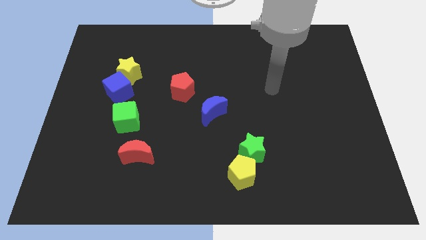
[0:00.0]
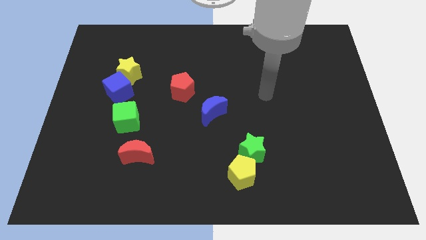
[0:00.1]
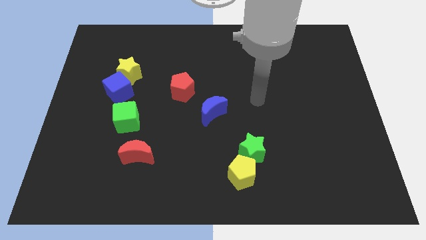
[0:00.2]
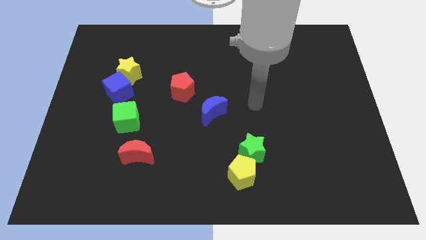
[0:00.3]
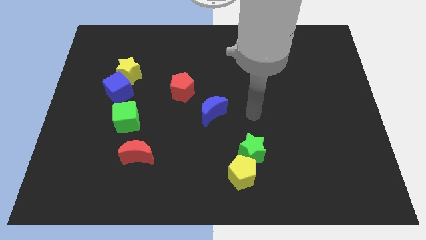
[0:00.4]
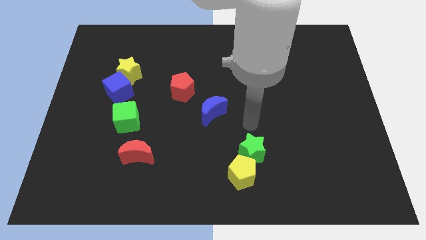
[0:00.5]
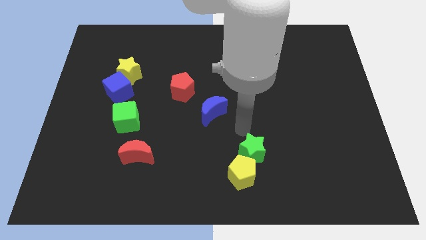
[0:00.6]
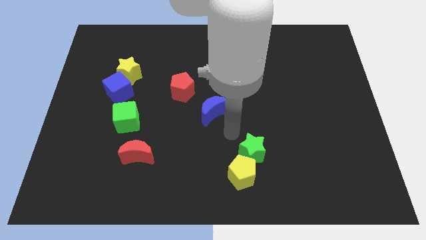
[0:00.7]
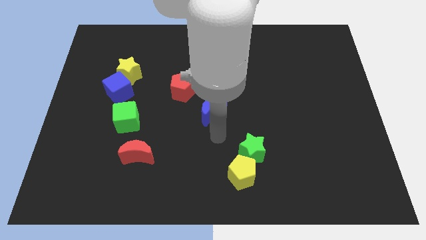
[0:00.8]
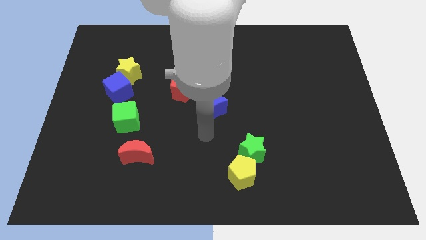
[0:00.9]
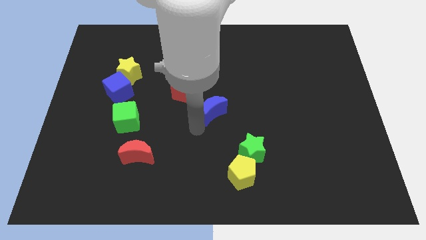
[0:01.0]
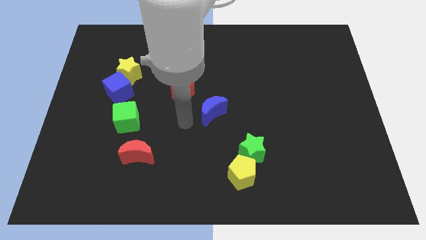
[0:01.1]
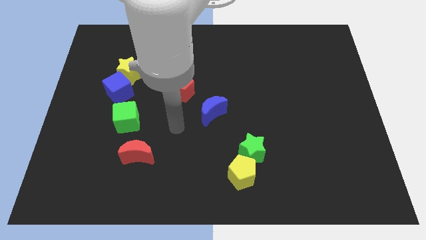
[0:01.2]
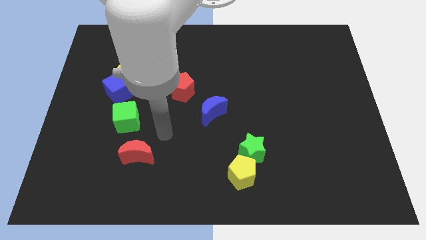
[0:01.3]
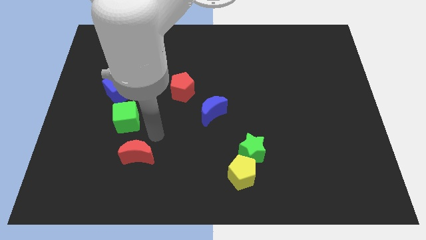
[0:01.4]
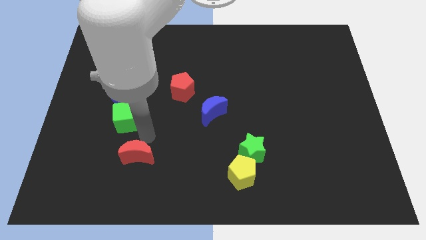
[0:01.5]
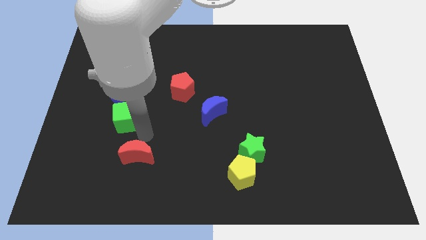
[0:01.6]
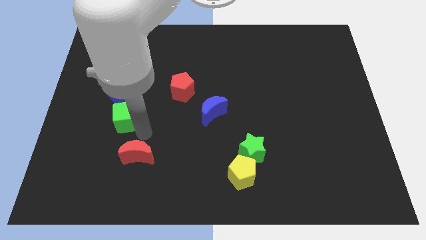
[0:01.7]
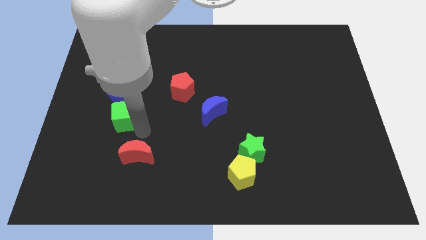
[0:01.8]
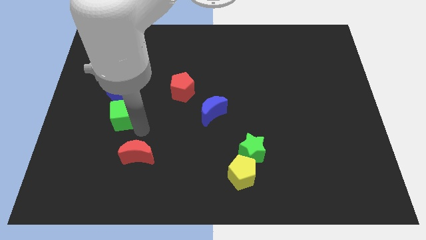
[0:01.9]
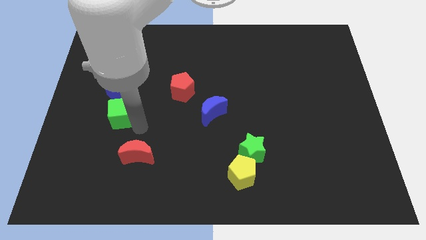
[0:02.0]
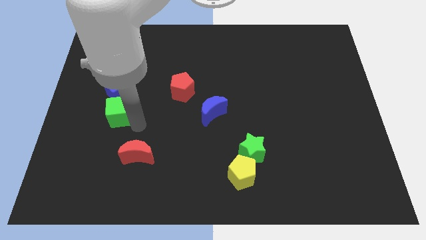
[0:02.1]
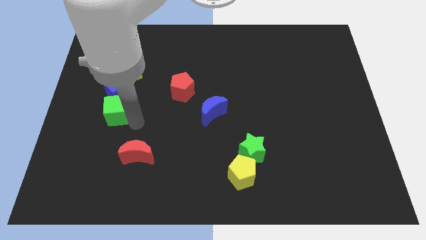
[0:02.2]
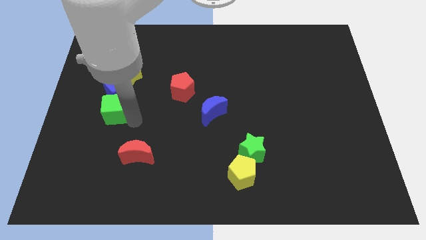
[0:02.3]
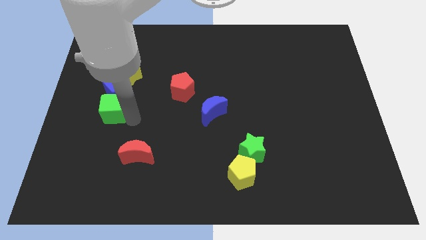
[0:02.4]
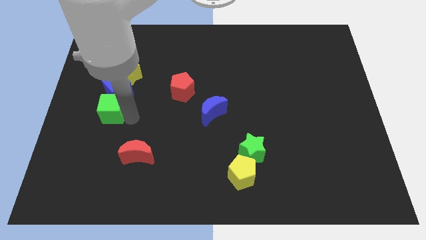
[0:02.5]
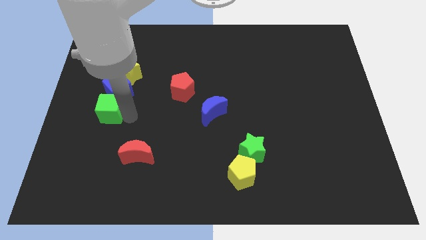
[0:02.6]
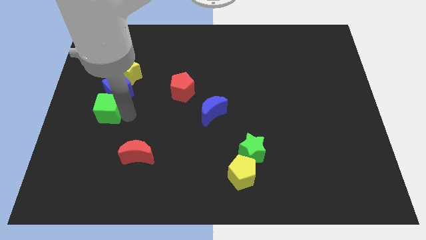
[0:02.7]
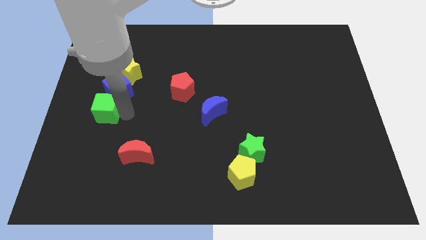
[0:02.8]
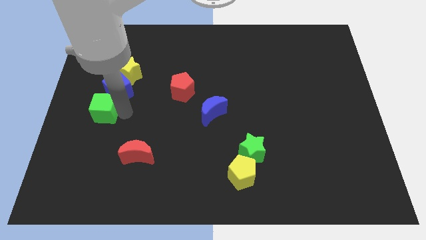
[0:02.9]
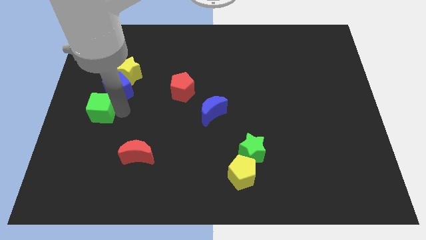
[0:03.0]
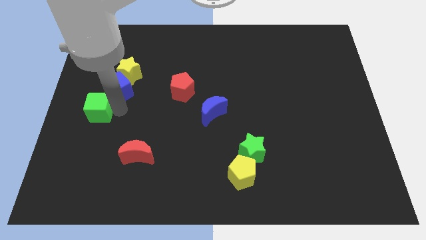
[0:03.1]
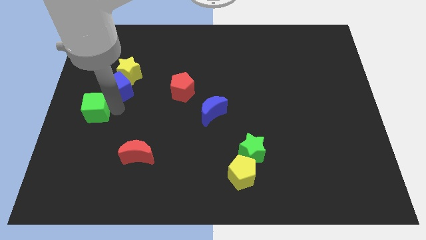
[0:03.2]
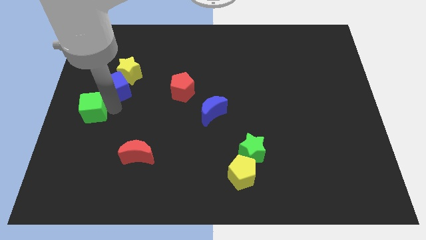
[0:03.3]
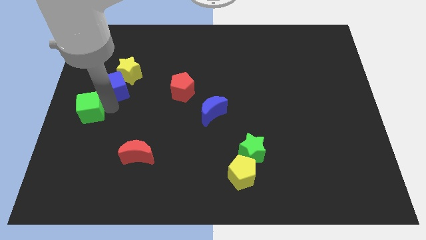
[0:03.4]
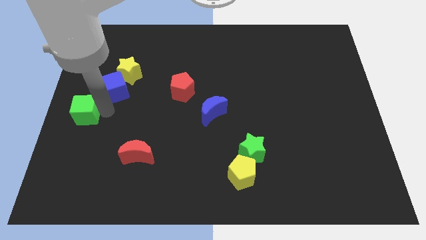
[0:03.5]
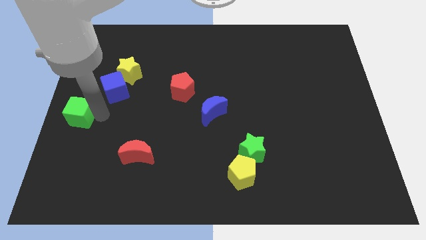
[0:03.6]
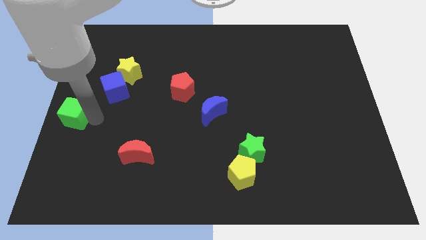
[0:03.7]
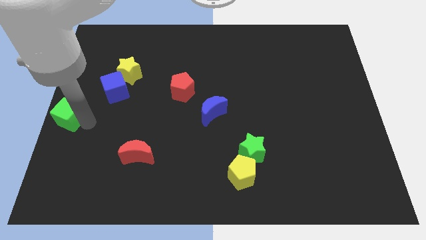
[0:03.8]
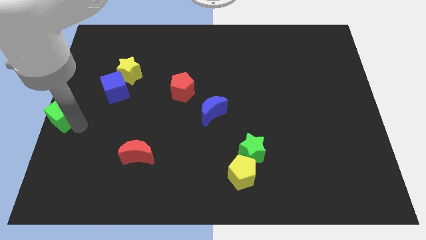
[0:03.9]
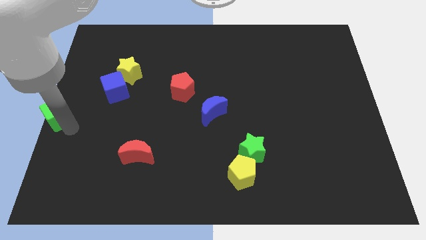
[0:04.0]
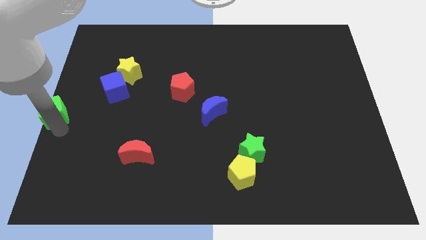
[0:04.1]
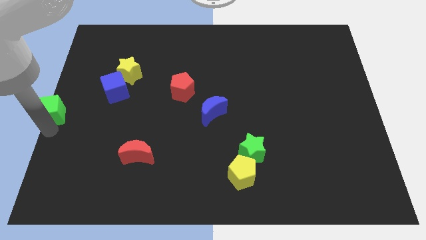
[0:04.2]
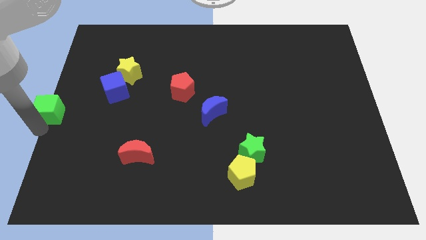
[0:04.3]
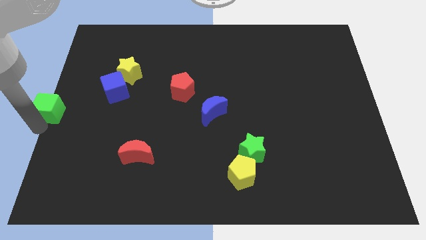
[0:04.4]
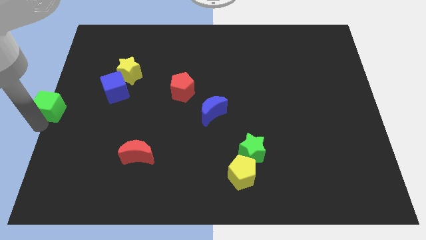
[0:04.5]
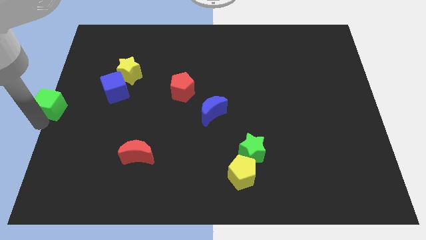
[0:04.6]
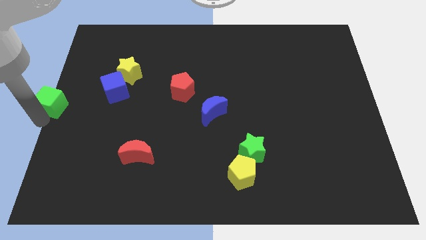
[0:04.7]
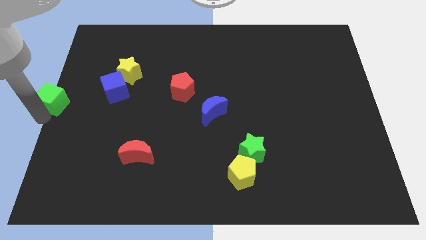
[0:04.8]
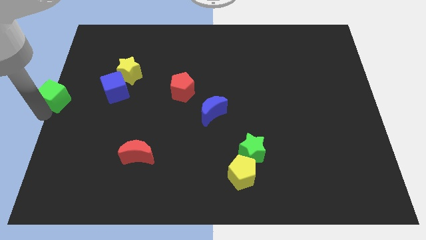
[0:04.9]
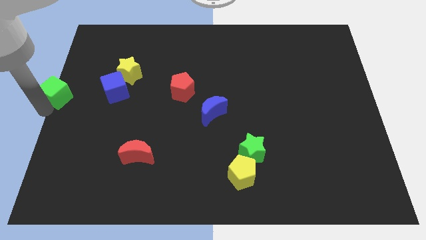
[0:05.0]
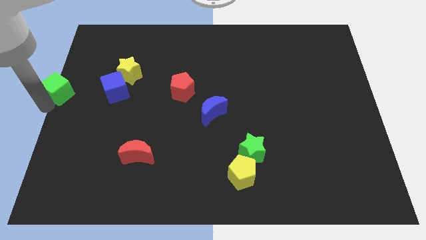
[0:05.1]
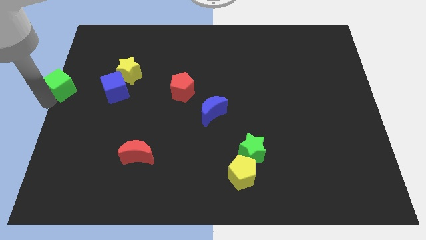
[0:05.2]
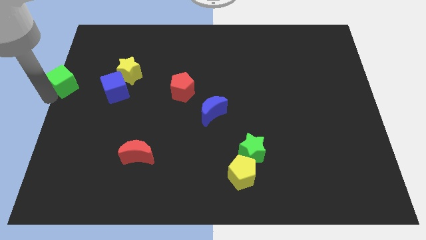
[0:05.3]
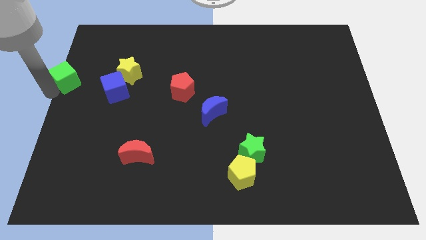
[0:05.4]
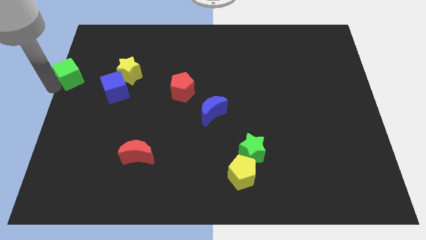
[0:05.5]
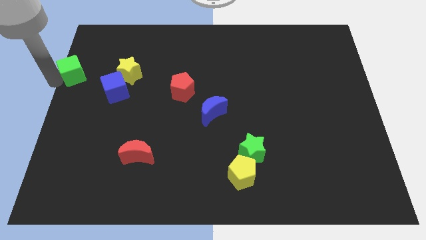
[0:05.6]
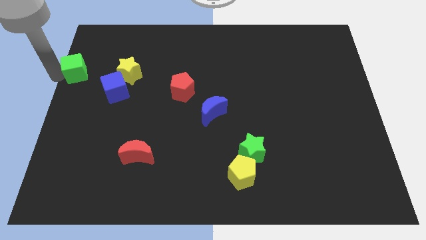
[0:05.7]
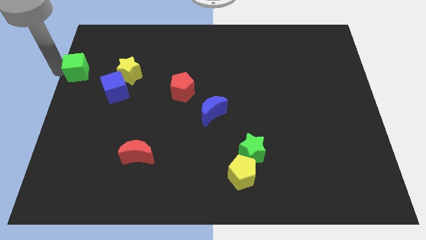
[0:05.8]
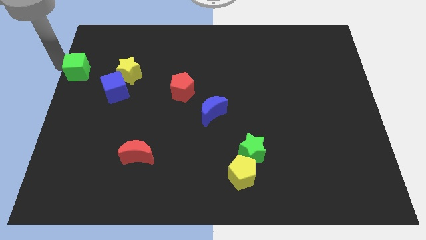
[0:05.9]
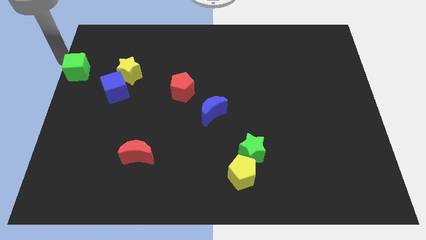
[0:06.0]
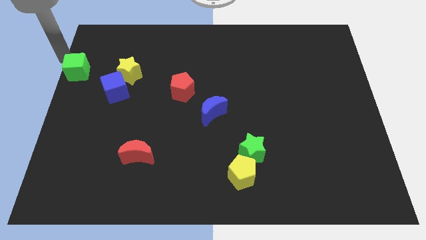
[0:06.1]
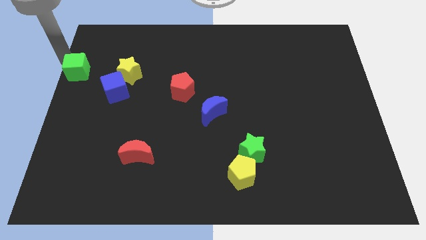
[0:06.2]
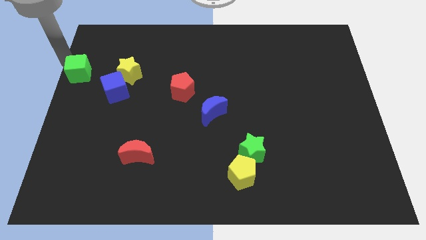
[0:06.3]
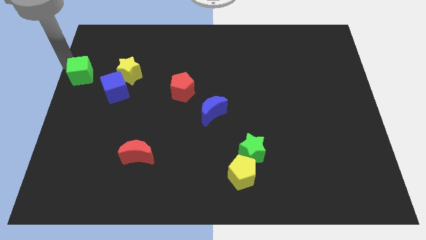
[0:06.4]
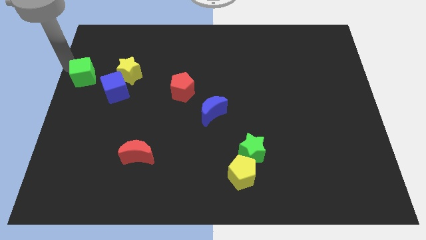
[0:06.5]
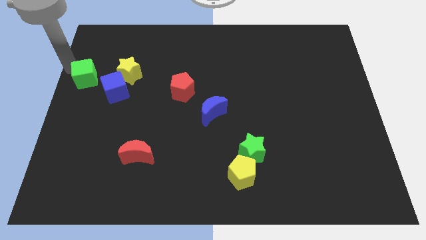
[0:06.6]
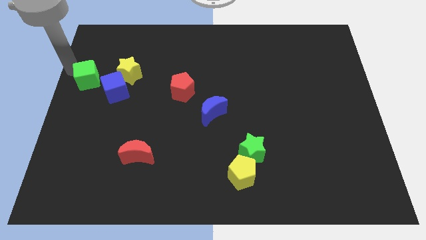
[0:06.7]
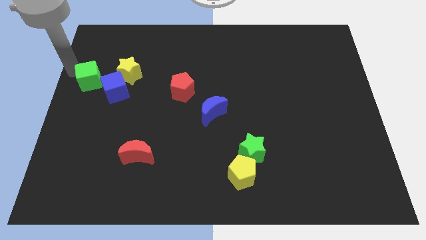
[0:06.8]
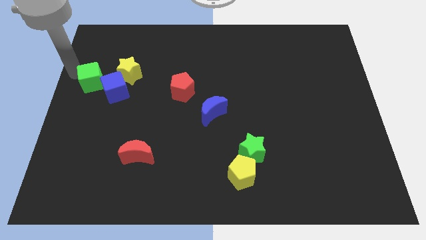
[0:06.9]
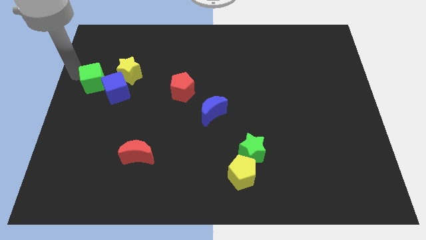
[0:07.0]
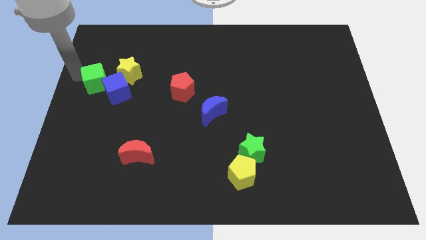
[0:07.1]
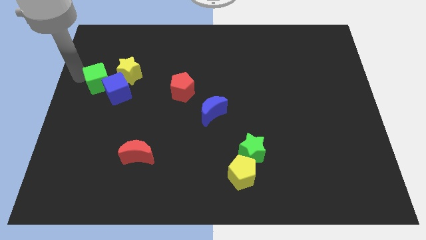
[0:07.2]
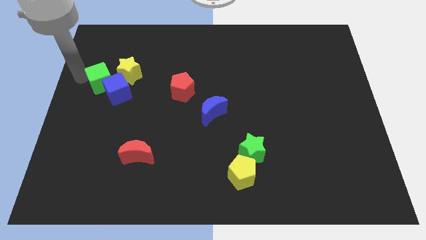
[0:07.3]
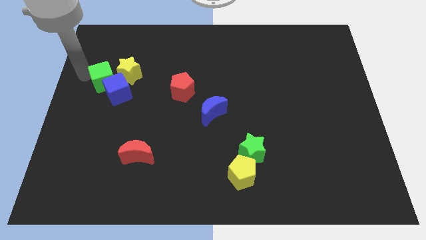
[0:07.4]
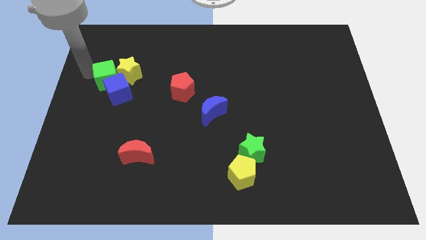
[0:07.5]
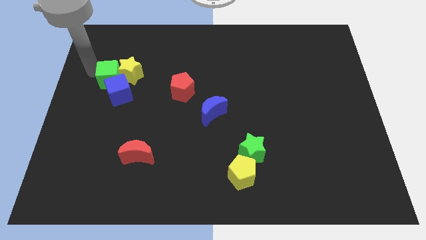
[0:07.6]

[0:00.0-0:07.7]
put the green cube to the top left side of the yellow star

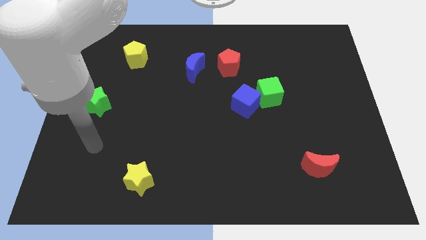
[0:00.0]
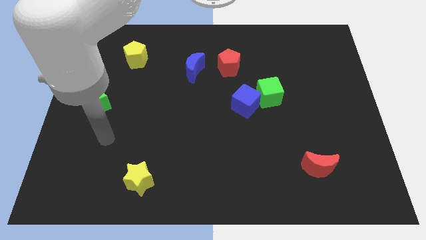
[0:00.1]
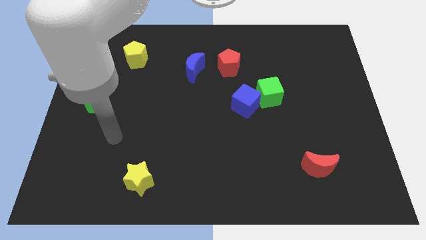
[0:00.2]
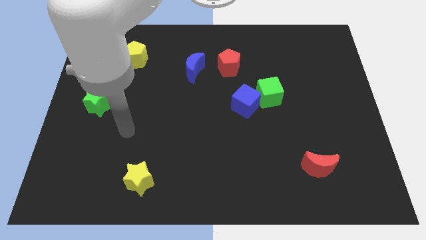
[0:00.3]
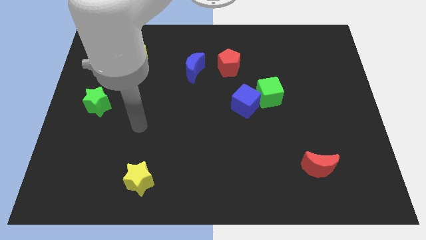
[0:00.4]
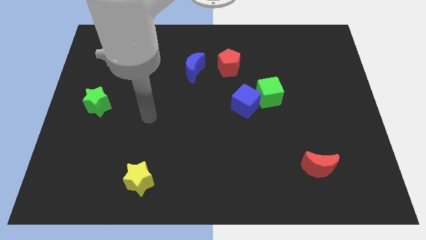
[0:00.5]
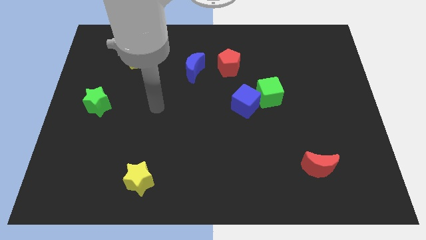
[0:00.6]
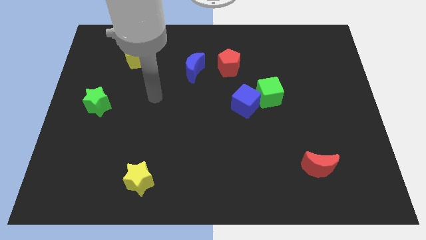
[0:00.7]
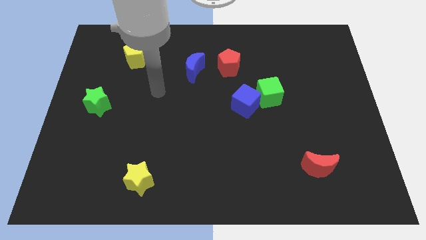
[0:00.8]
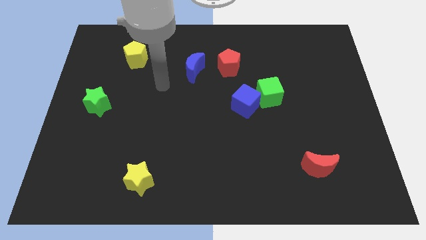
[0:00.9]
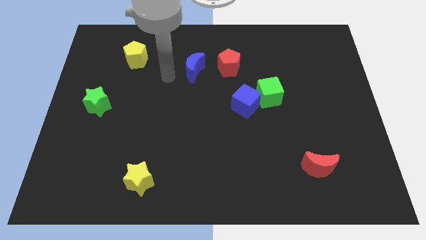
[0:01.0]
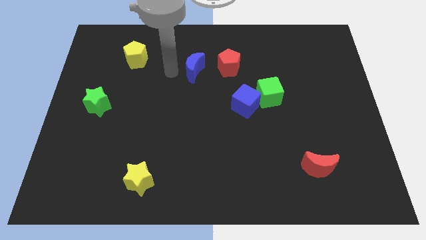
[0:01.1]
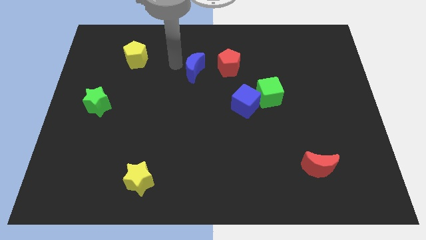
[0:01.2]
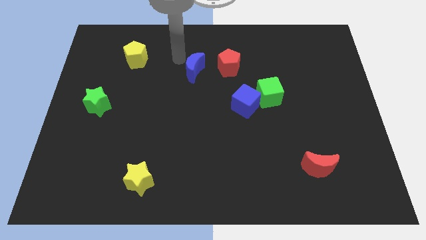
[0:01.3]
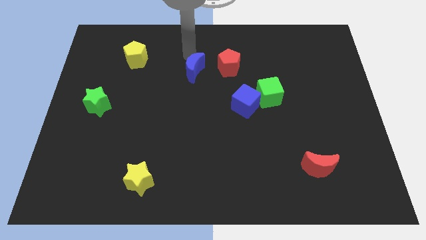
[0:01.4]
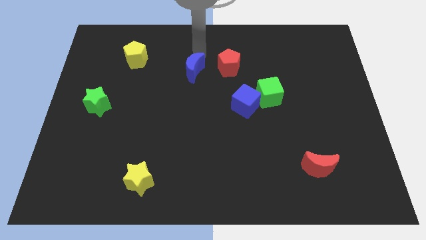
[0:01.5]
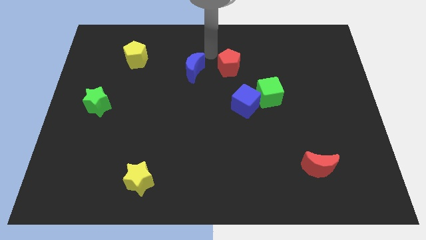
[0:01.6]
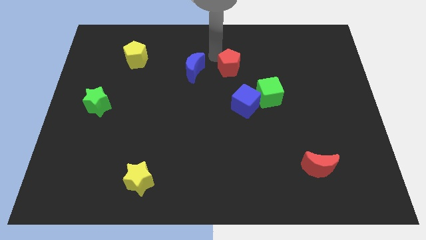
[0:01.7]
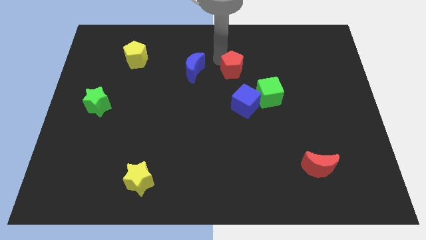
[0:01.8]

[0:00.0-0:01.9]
move the red pentagon to the top left side of the green cube
